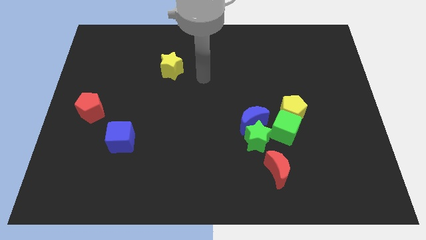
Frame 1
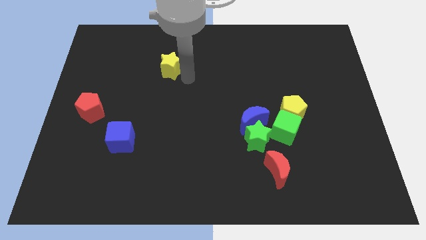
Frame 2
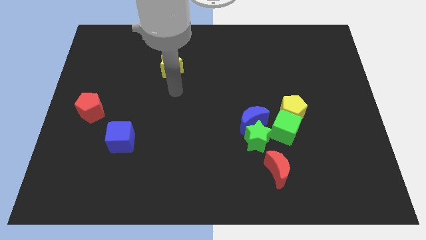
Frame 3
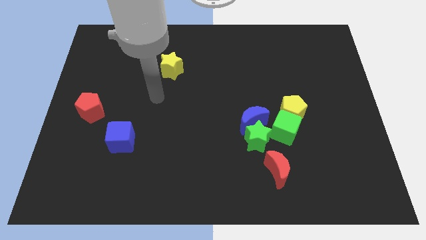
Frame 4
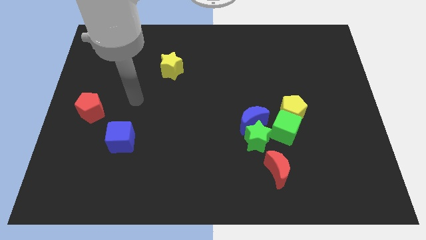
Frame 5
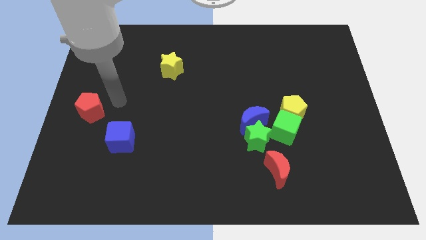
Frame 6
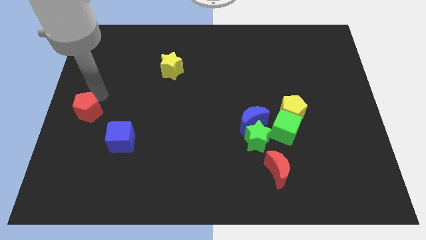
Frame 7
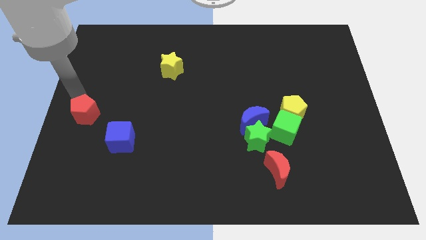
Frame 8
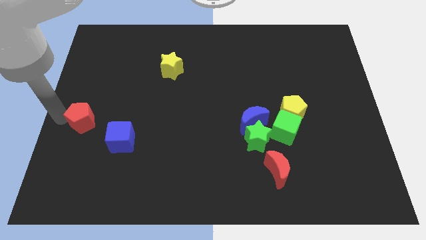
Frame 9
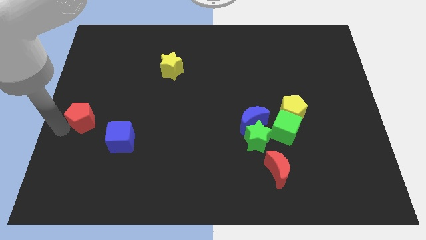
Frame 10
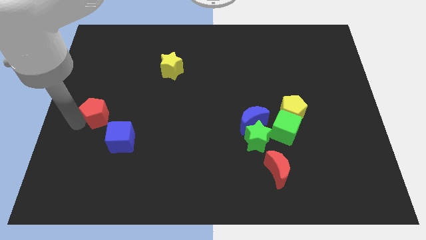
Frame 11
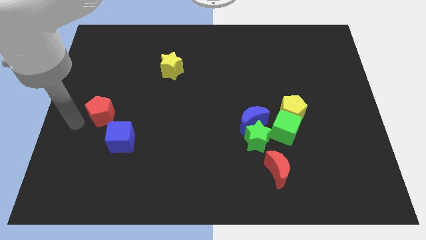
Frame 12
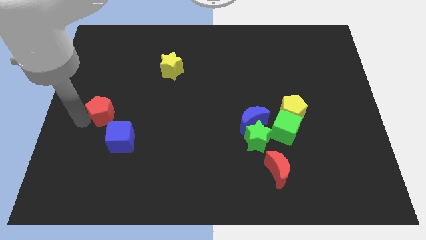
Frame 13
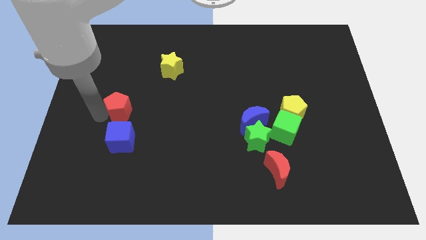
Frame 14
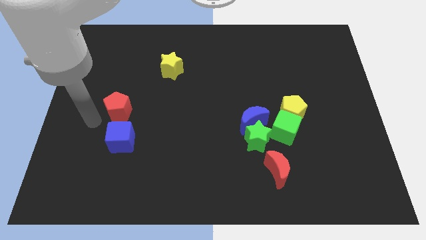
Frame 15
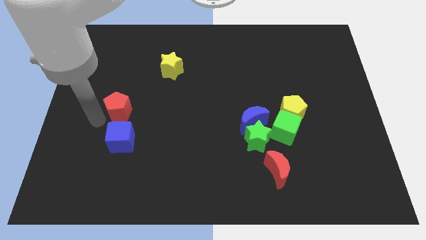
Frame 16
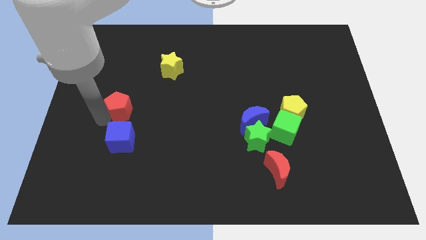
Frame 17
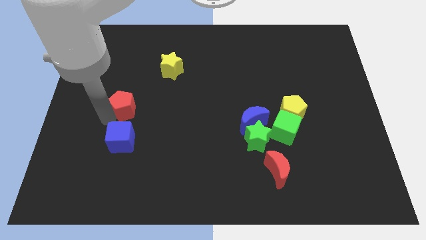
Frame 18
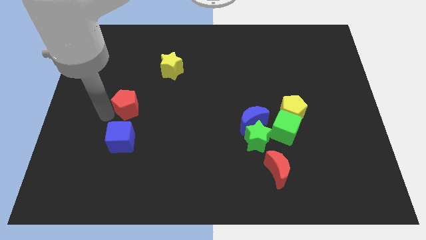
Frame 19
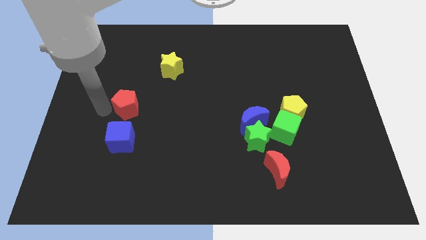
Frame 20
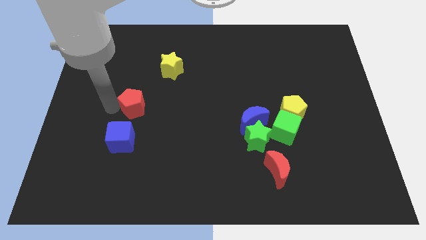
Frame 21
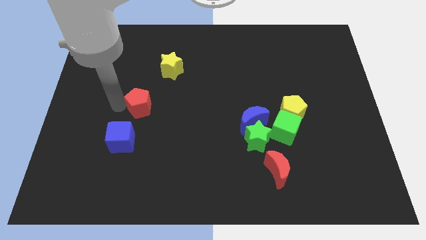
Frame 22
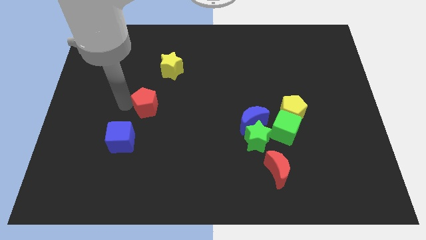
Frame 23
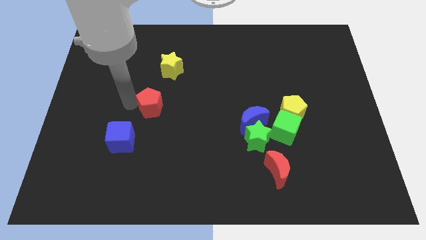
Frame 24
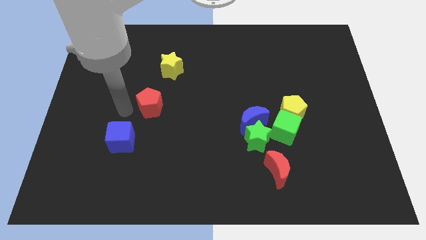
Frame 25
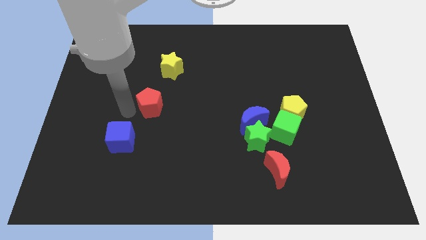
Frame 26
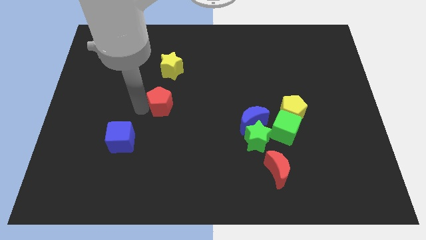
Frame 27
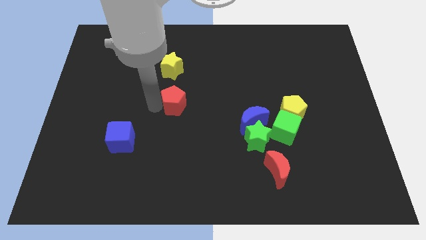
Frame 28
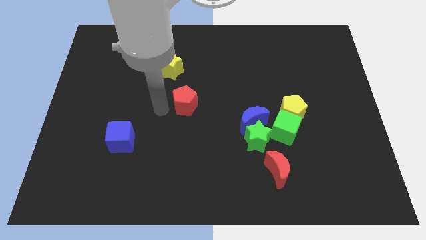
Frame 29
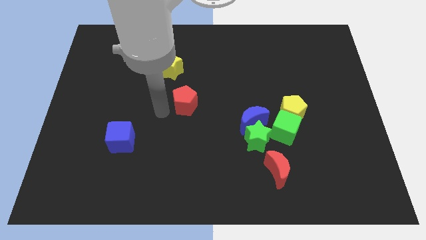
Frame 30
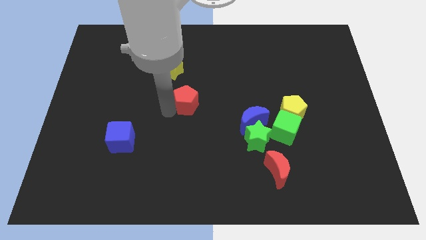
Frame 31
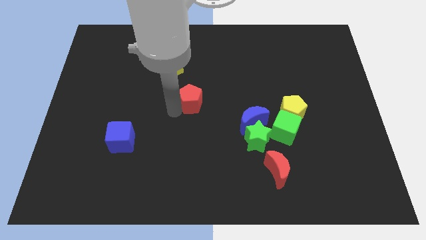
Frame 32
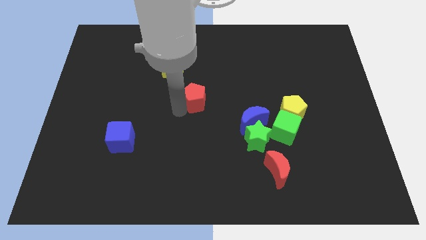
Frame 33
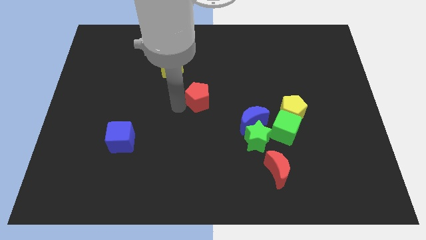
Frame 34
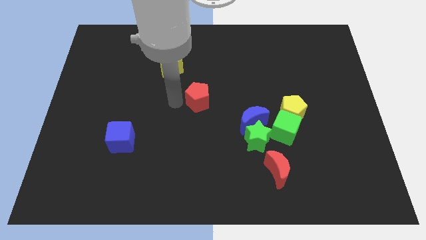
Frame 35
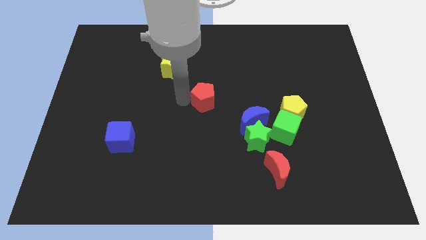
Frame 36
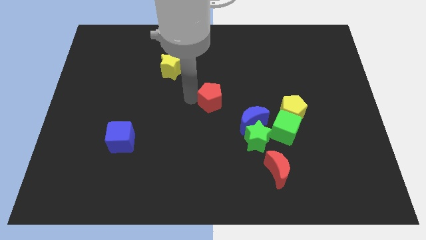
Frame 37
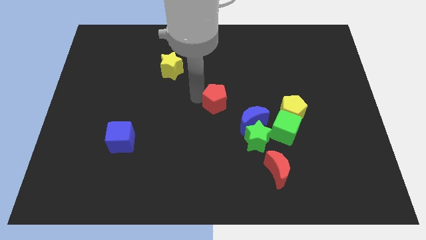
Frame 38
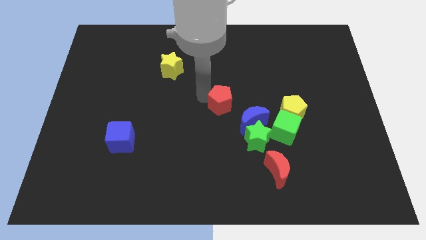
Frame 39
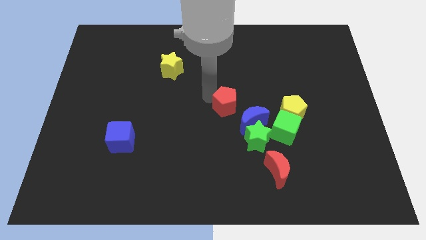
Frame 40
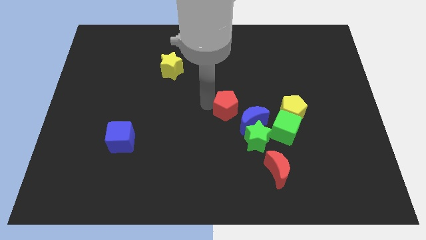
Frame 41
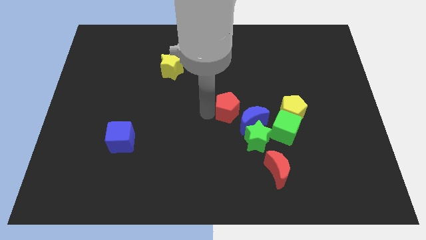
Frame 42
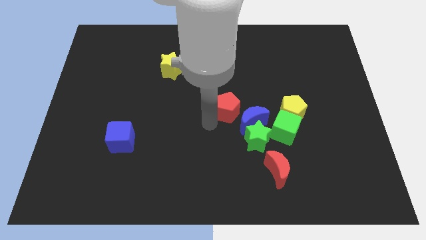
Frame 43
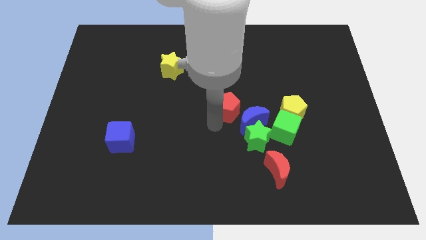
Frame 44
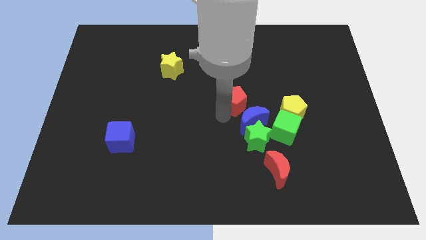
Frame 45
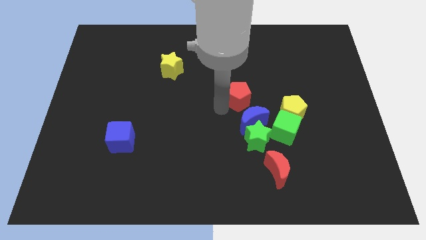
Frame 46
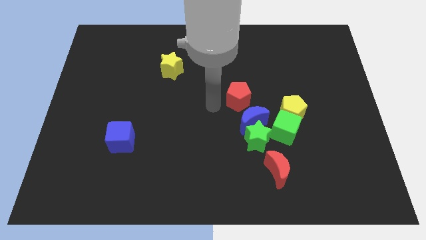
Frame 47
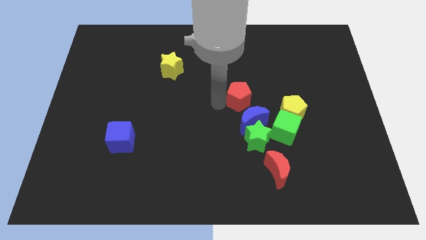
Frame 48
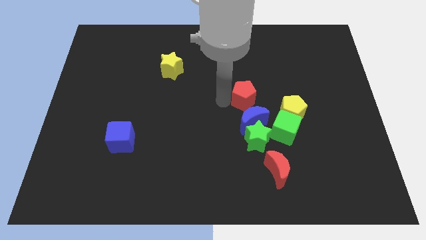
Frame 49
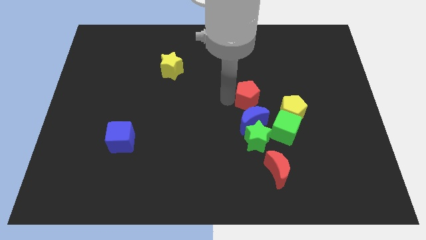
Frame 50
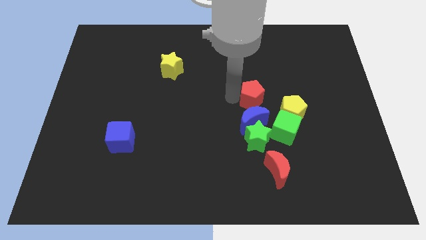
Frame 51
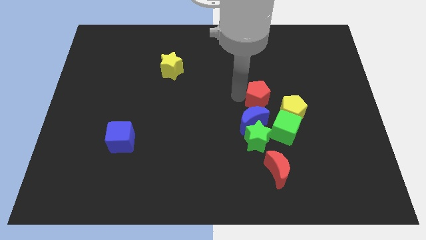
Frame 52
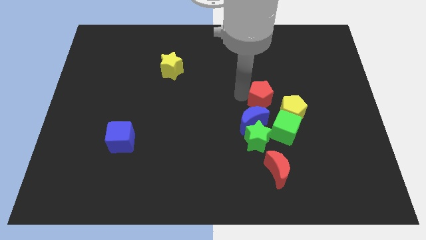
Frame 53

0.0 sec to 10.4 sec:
move the red pentagon to the top of the green cube
